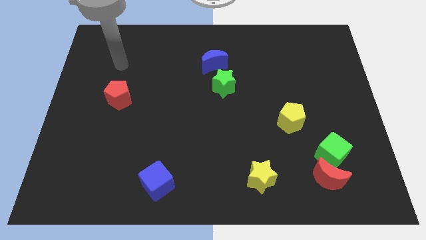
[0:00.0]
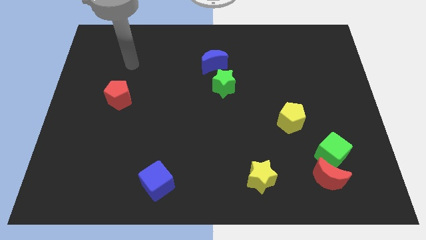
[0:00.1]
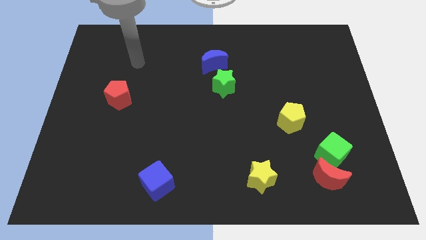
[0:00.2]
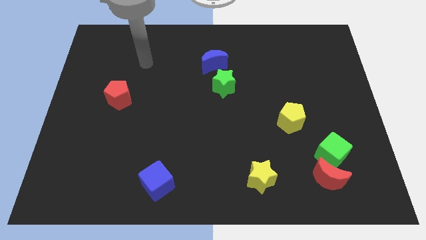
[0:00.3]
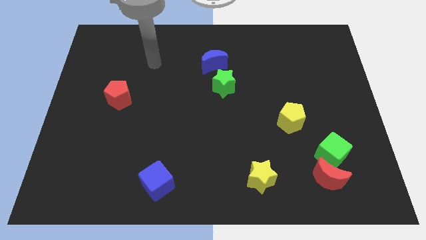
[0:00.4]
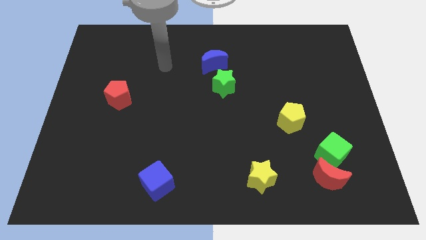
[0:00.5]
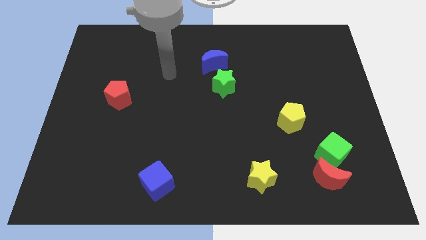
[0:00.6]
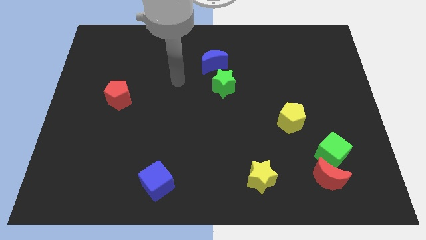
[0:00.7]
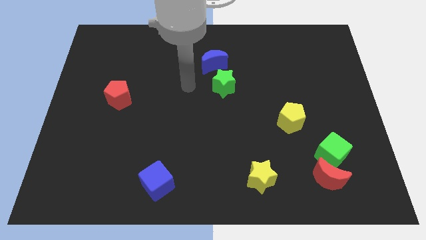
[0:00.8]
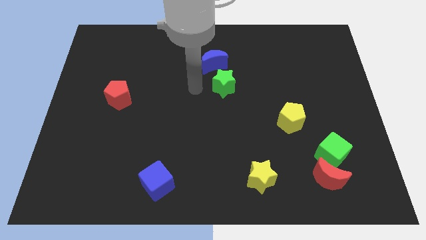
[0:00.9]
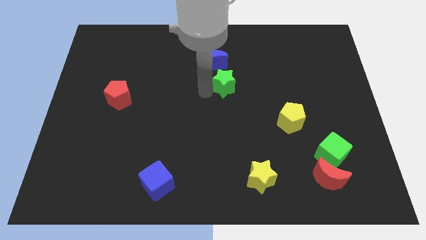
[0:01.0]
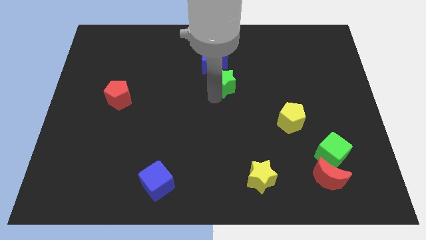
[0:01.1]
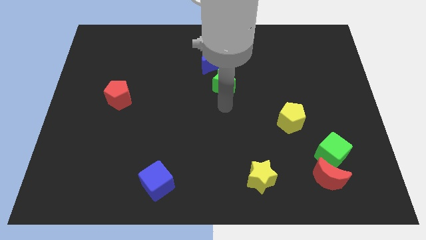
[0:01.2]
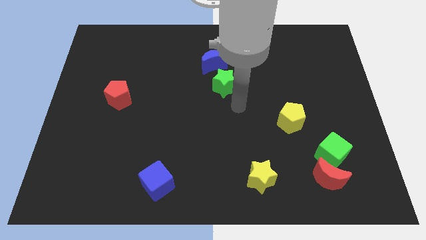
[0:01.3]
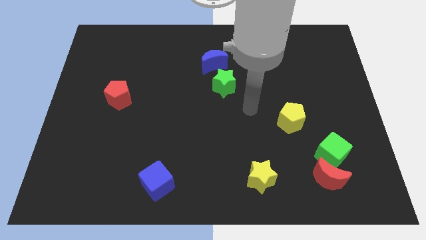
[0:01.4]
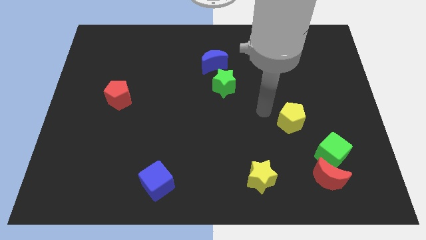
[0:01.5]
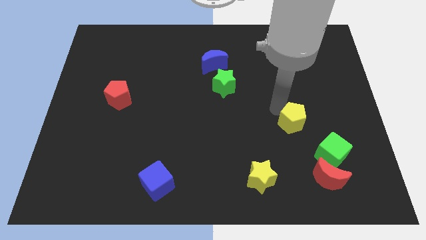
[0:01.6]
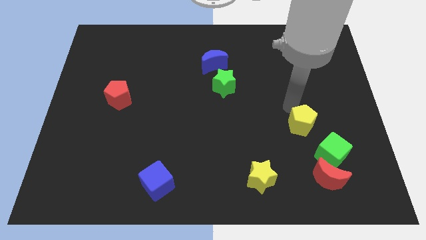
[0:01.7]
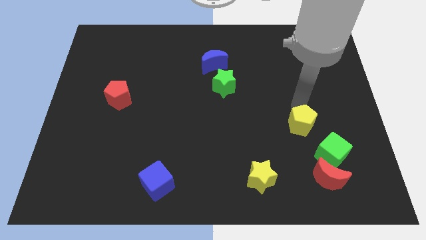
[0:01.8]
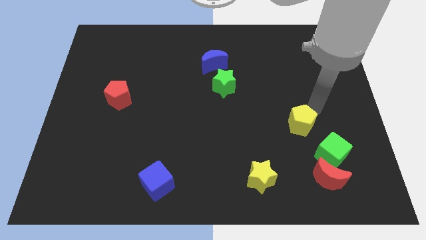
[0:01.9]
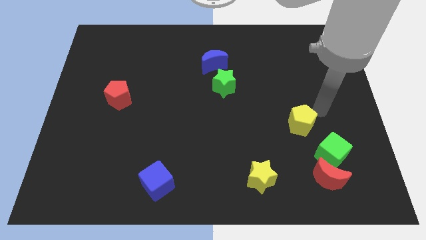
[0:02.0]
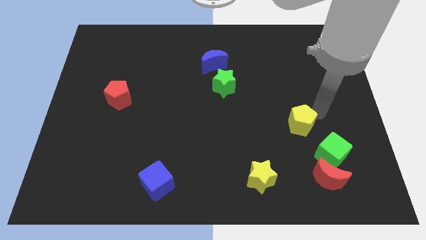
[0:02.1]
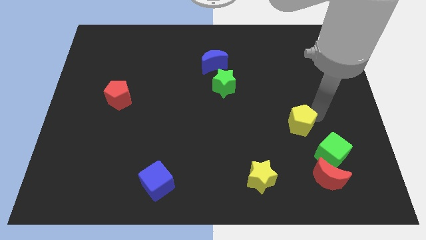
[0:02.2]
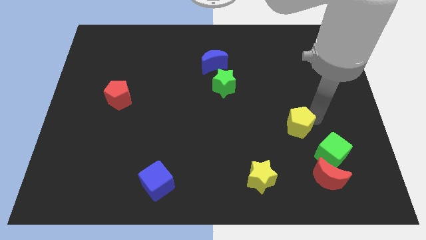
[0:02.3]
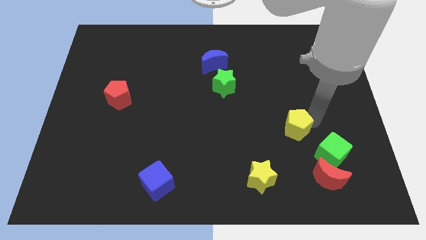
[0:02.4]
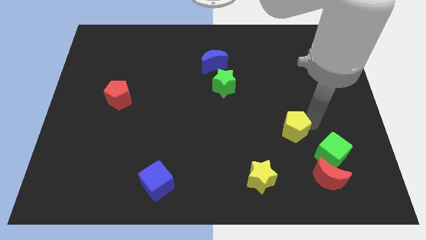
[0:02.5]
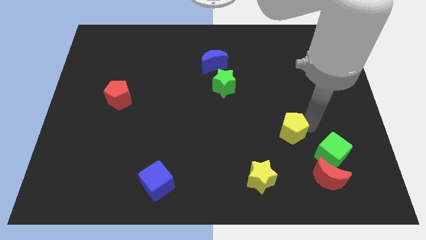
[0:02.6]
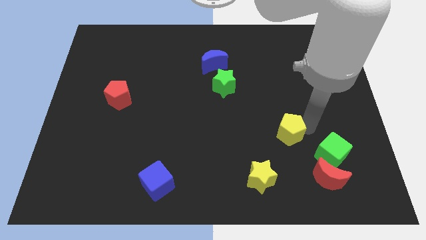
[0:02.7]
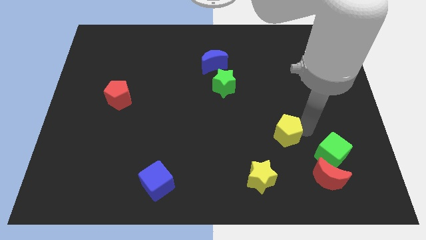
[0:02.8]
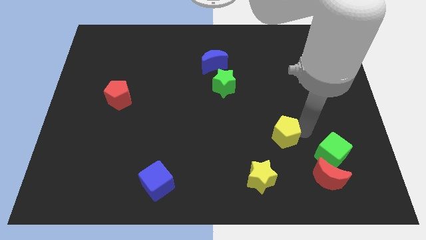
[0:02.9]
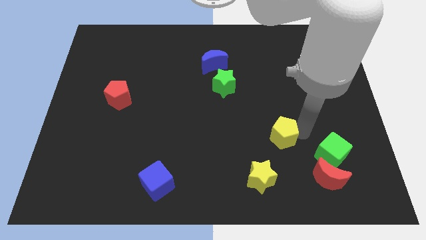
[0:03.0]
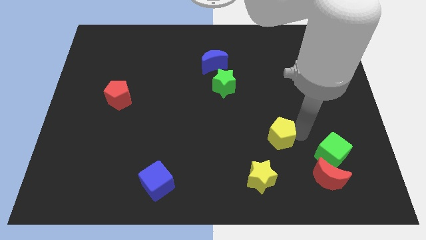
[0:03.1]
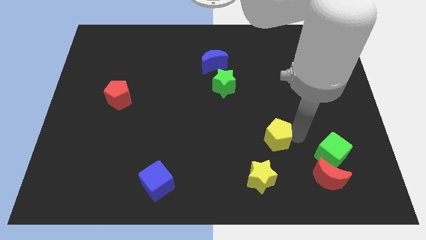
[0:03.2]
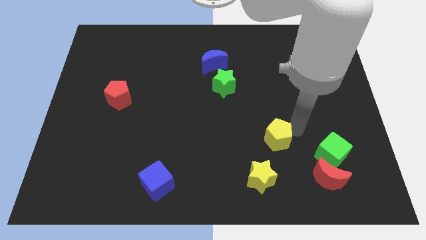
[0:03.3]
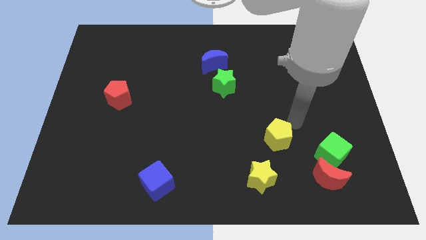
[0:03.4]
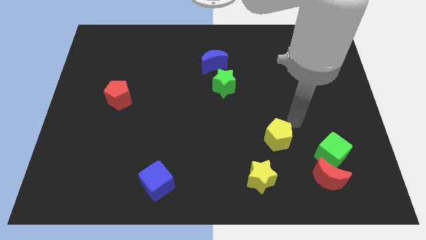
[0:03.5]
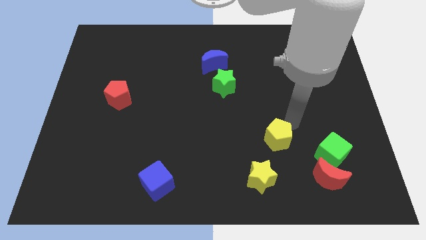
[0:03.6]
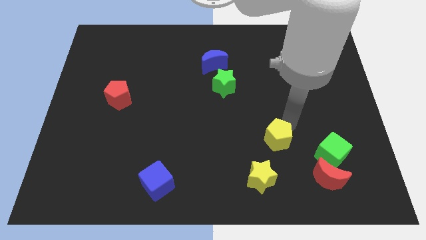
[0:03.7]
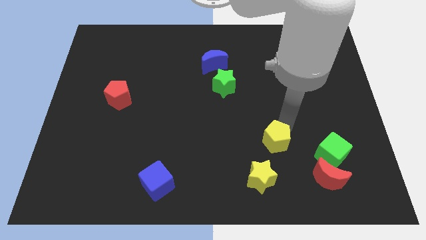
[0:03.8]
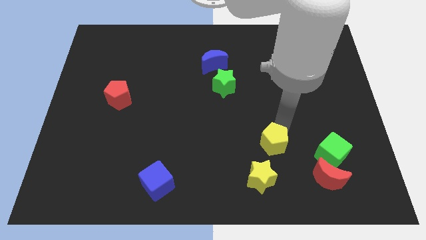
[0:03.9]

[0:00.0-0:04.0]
move the yellow pentagon a bit down and to the left

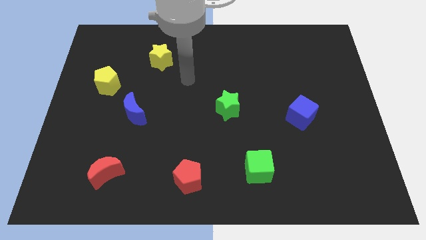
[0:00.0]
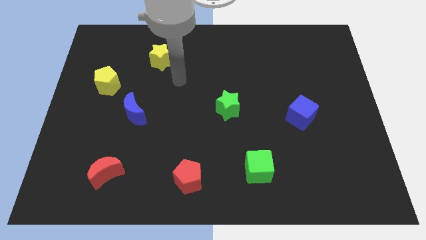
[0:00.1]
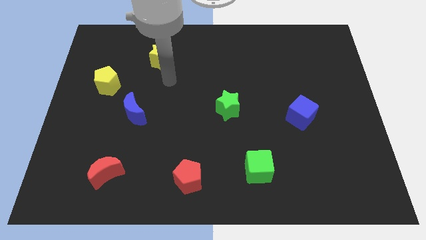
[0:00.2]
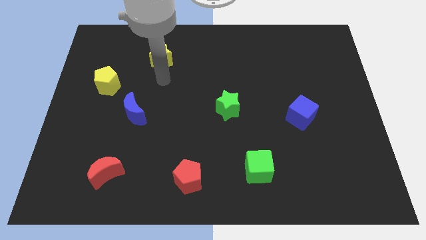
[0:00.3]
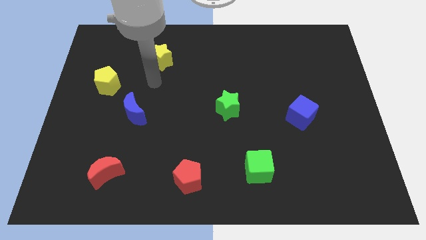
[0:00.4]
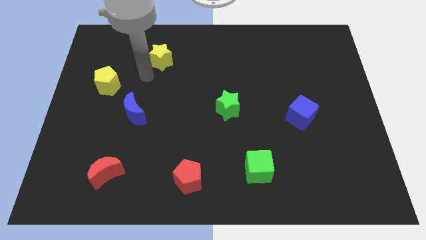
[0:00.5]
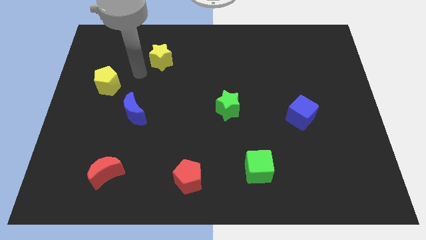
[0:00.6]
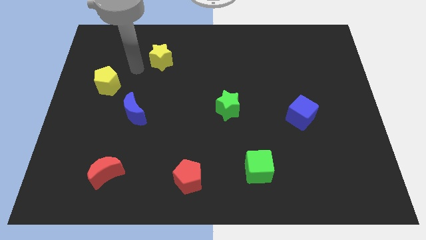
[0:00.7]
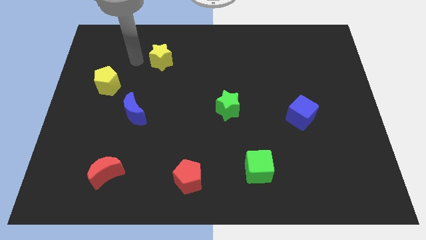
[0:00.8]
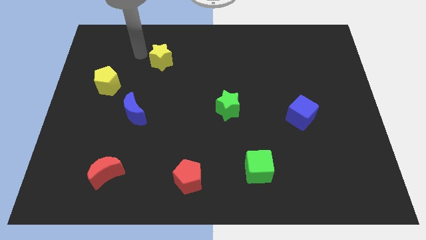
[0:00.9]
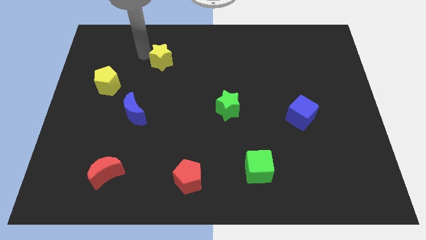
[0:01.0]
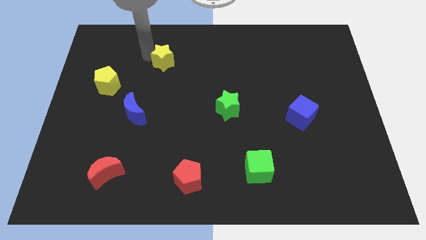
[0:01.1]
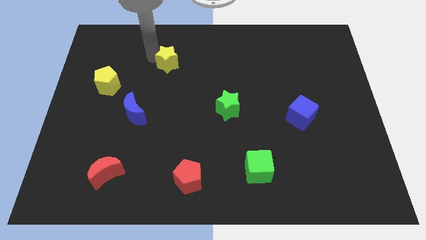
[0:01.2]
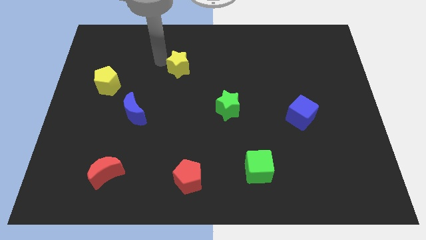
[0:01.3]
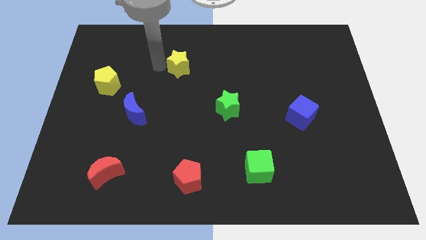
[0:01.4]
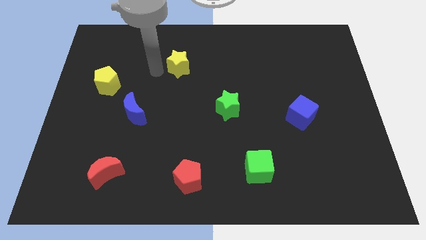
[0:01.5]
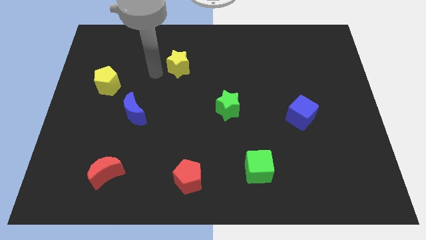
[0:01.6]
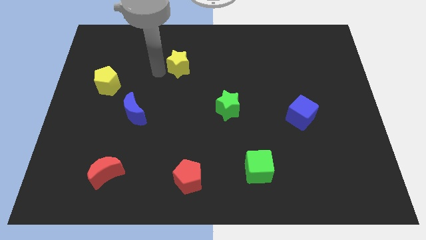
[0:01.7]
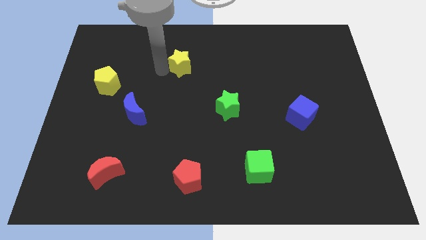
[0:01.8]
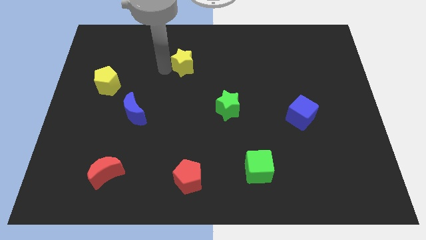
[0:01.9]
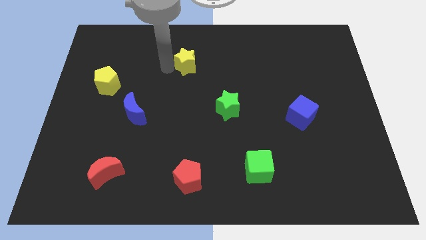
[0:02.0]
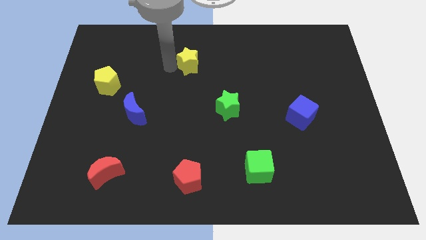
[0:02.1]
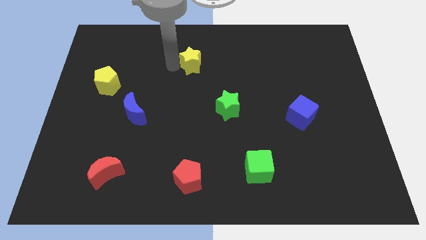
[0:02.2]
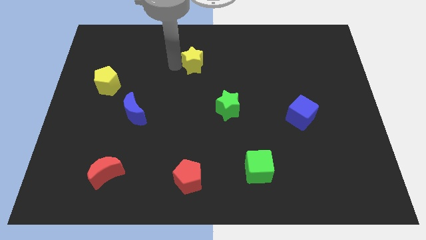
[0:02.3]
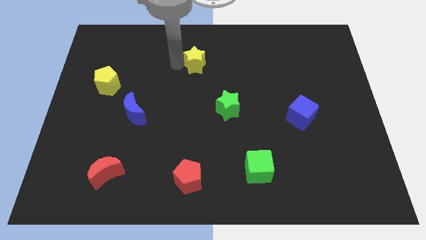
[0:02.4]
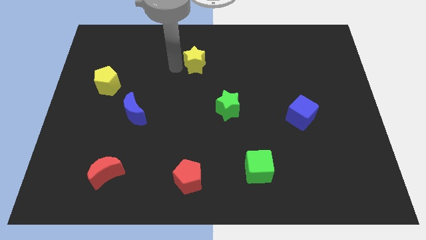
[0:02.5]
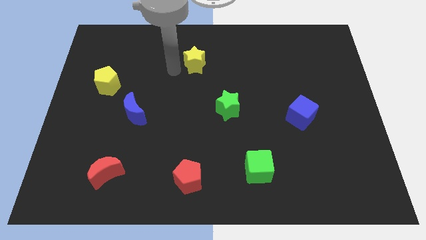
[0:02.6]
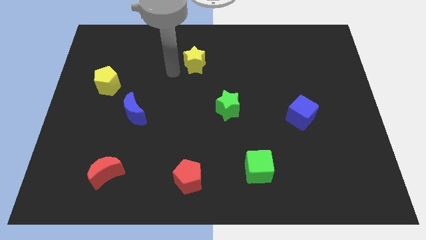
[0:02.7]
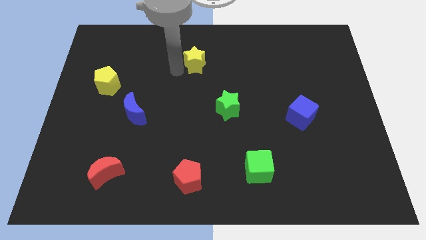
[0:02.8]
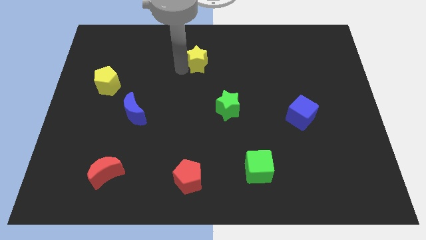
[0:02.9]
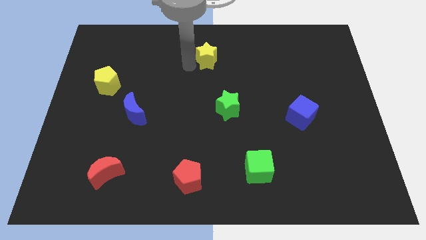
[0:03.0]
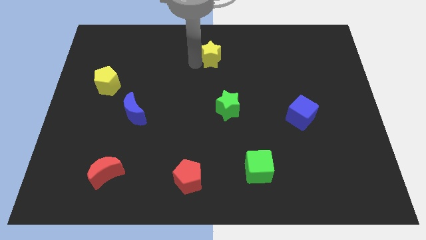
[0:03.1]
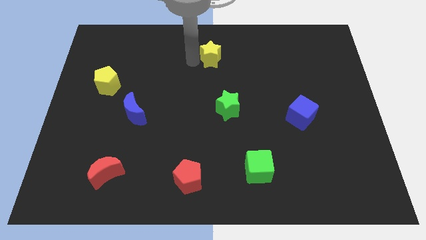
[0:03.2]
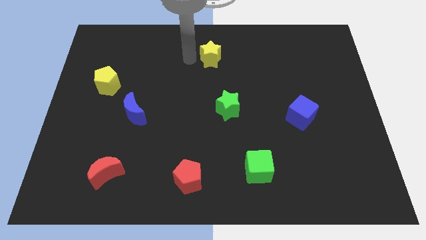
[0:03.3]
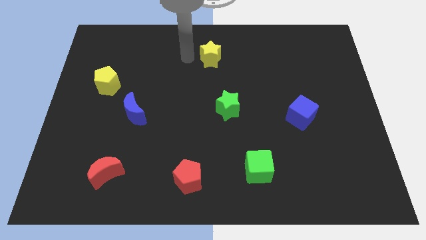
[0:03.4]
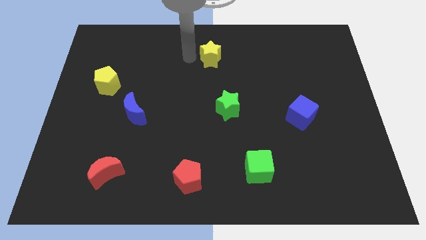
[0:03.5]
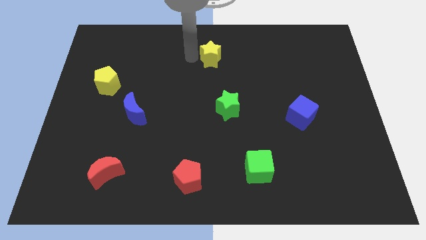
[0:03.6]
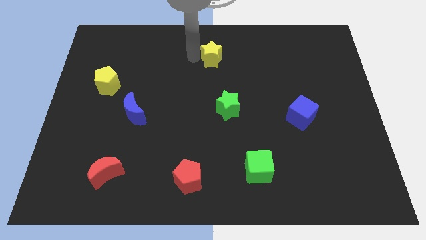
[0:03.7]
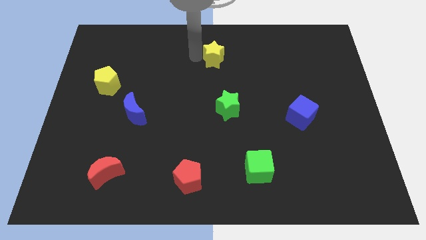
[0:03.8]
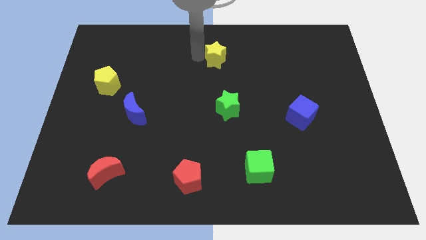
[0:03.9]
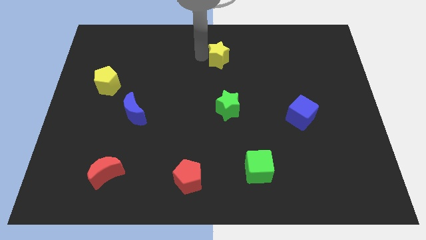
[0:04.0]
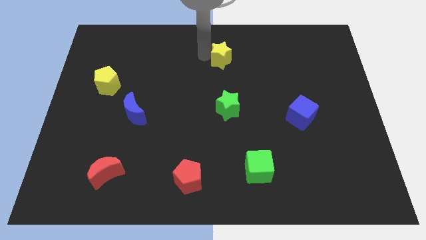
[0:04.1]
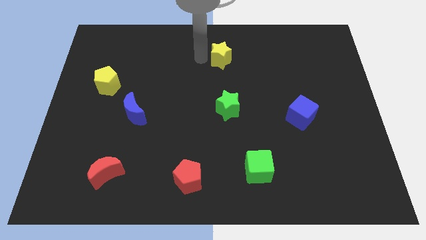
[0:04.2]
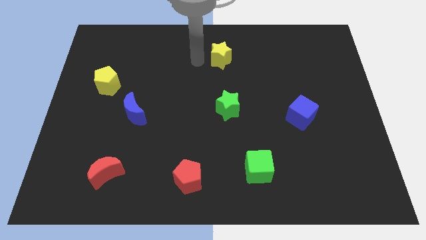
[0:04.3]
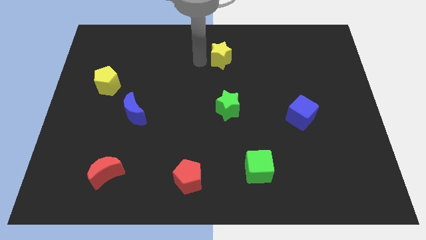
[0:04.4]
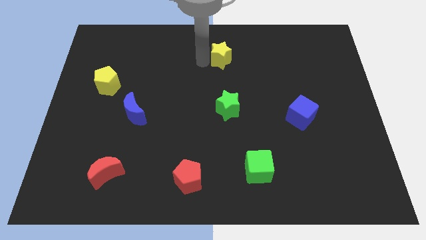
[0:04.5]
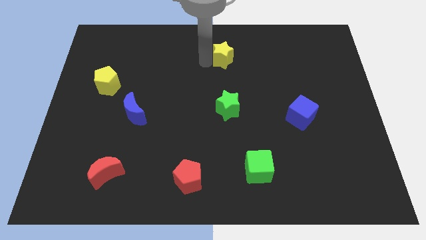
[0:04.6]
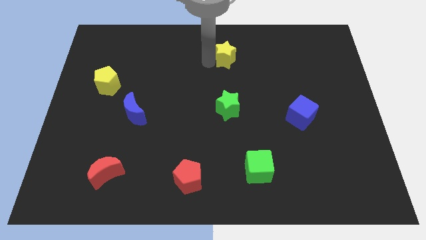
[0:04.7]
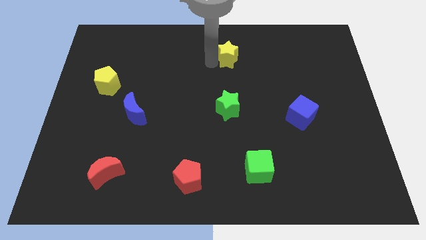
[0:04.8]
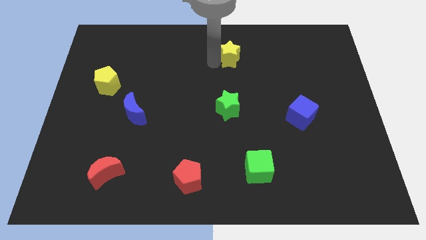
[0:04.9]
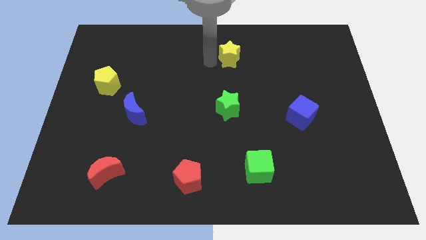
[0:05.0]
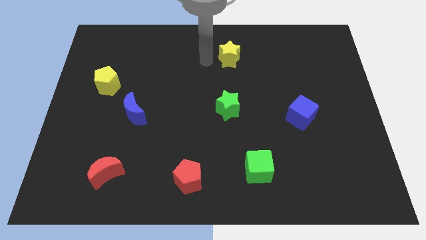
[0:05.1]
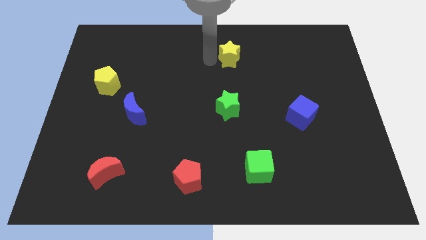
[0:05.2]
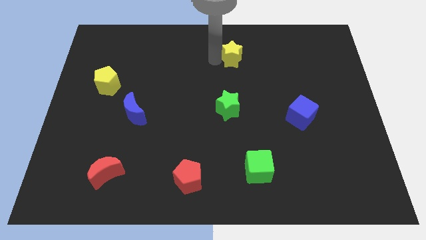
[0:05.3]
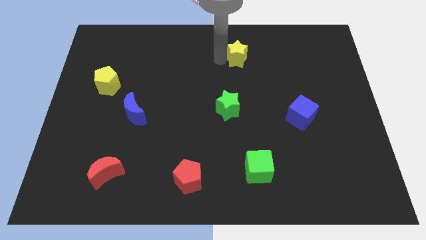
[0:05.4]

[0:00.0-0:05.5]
push the yellow star right
